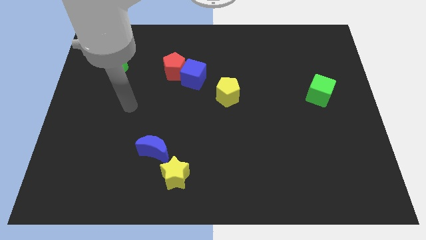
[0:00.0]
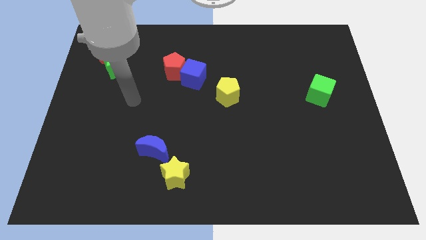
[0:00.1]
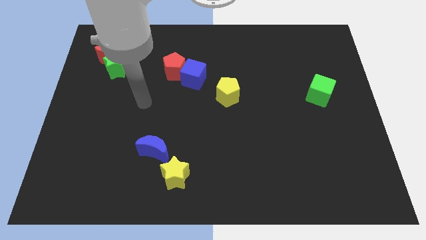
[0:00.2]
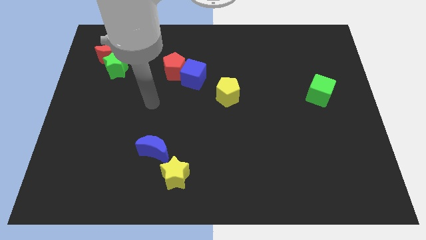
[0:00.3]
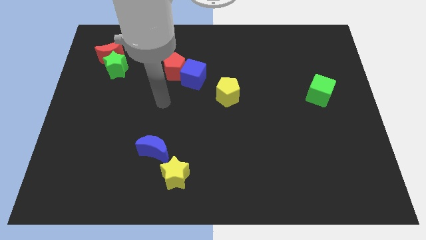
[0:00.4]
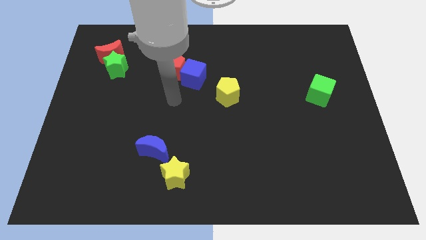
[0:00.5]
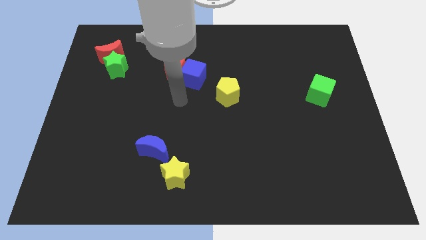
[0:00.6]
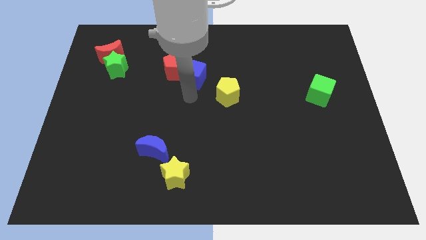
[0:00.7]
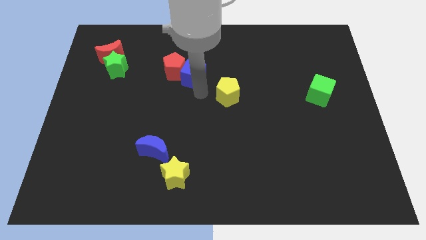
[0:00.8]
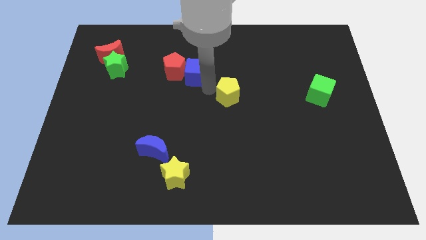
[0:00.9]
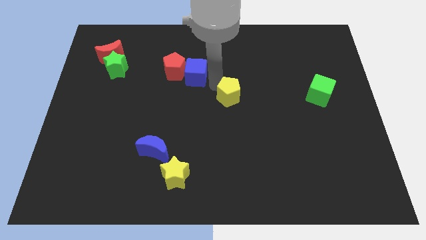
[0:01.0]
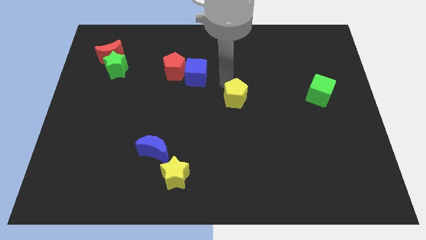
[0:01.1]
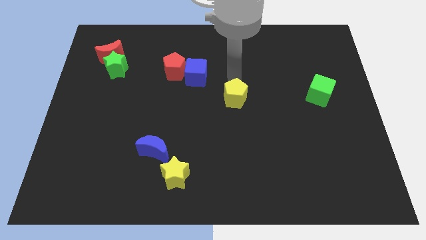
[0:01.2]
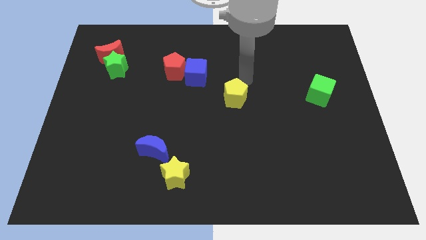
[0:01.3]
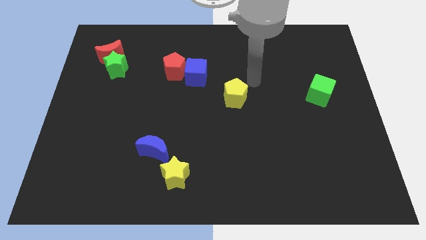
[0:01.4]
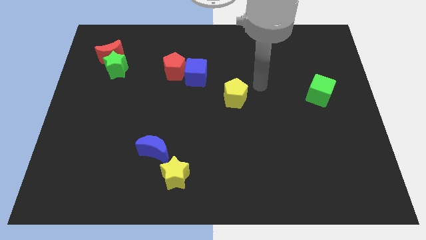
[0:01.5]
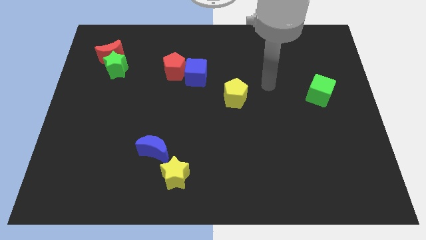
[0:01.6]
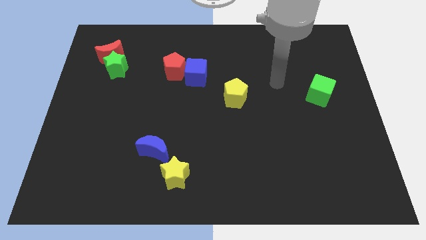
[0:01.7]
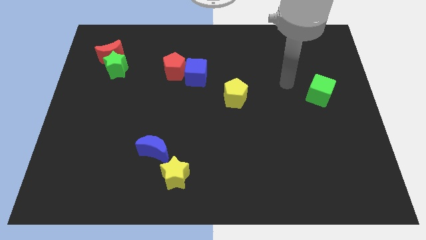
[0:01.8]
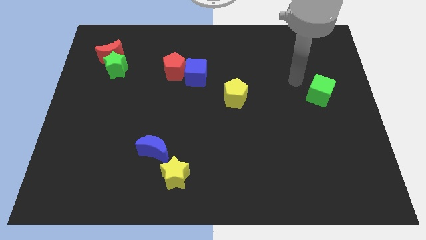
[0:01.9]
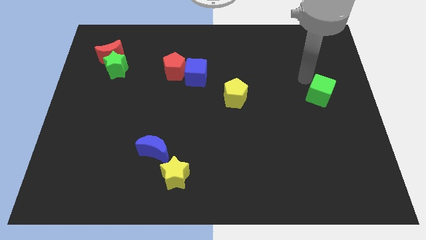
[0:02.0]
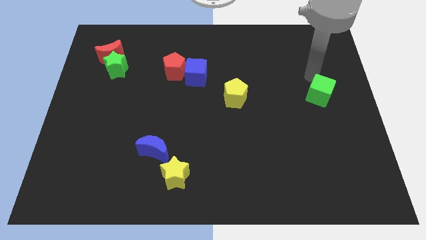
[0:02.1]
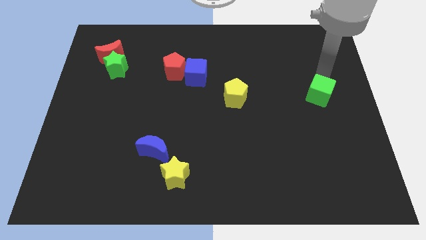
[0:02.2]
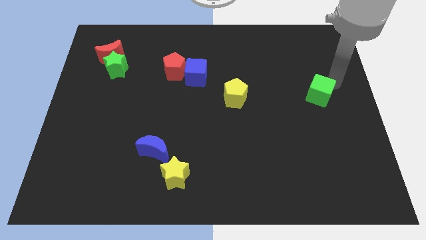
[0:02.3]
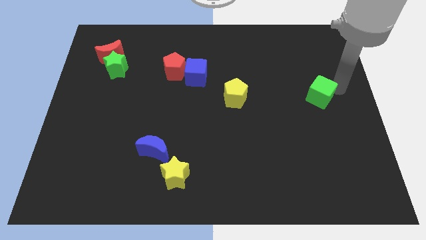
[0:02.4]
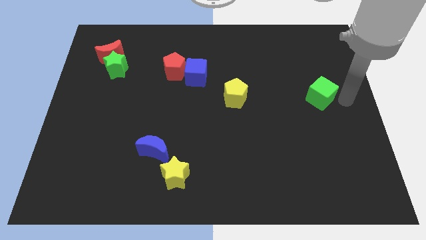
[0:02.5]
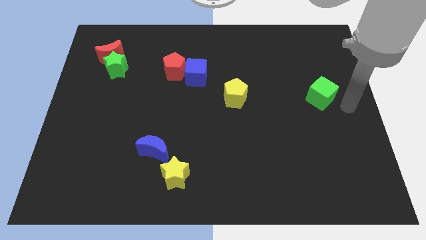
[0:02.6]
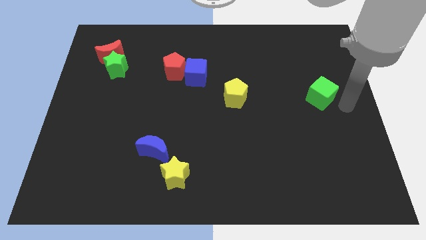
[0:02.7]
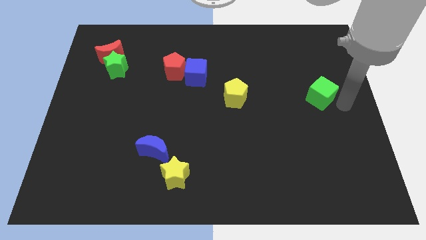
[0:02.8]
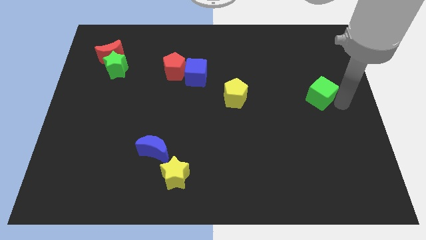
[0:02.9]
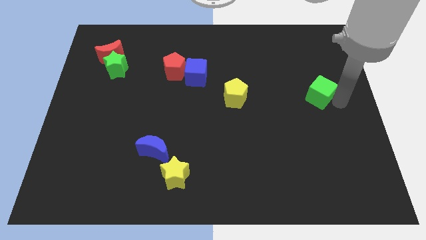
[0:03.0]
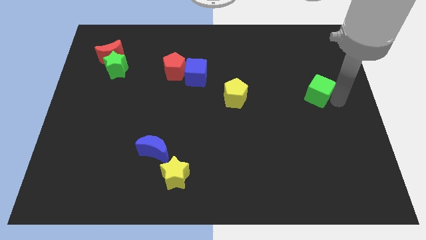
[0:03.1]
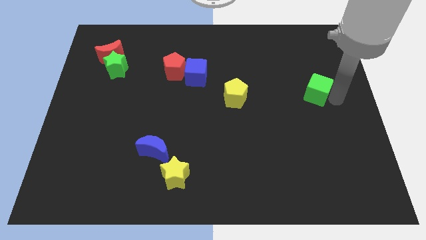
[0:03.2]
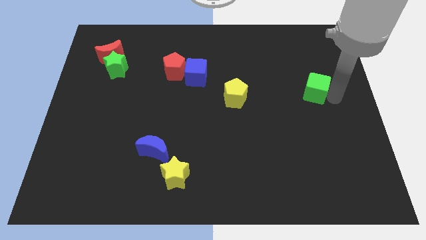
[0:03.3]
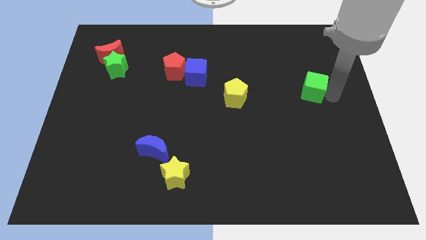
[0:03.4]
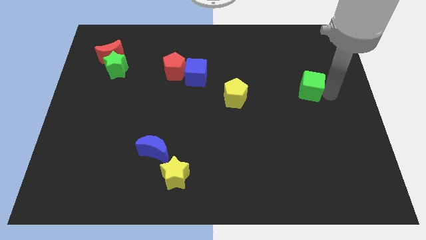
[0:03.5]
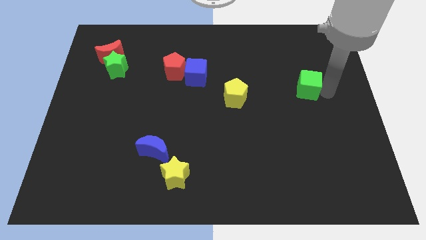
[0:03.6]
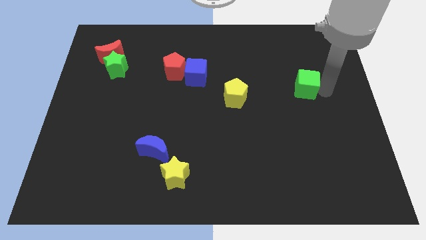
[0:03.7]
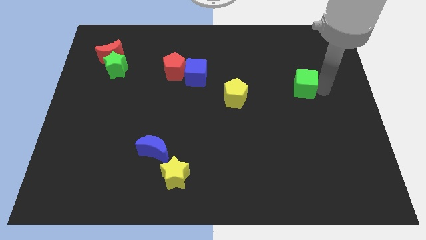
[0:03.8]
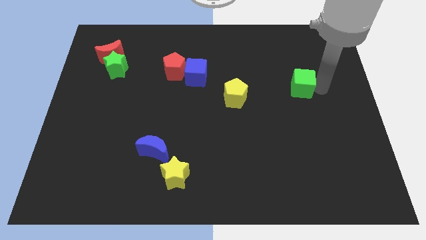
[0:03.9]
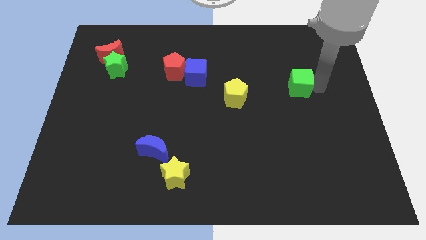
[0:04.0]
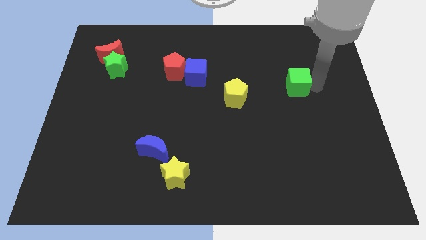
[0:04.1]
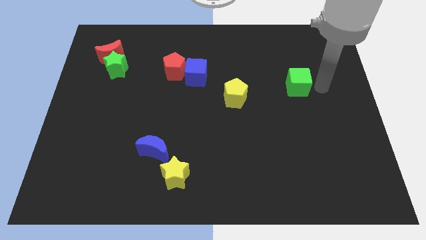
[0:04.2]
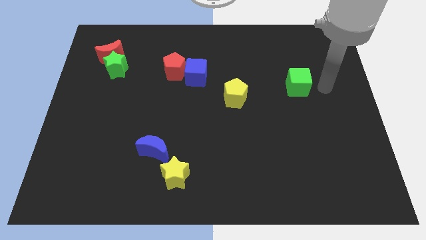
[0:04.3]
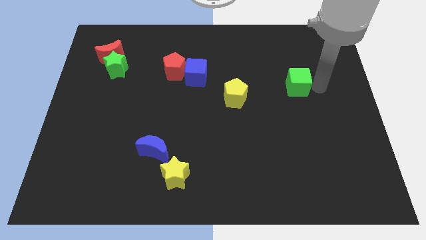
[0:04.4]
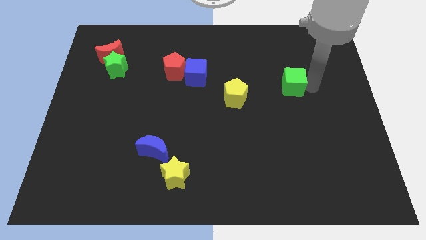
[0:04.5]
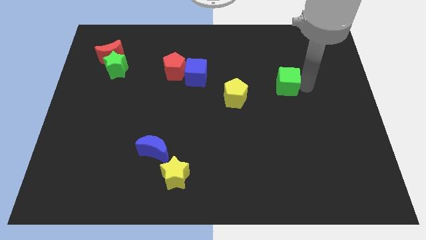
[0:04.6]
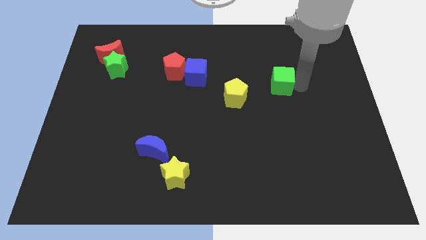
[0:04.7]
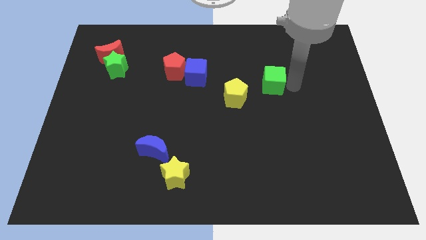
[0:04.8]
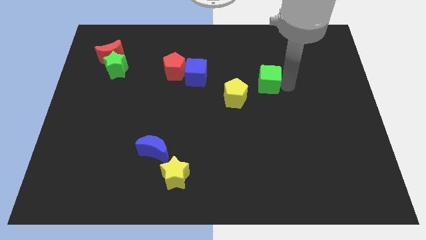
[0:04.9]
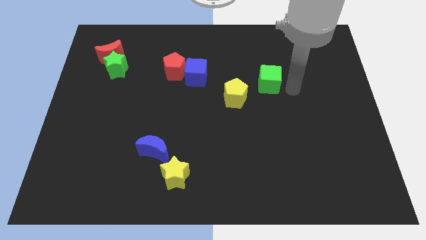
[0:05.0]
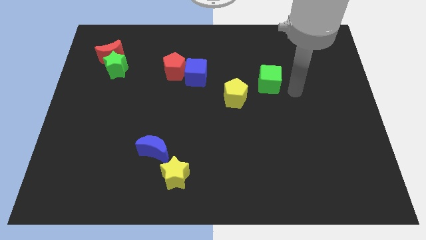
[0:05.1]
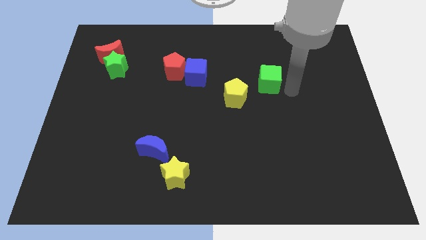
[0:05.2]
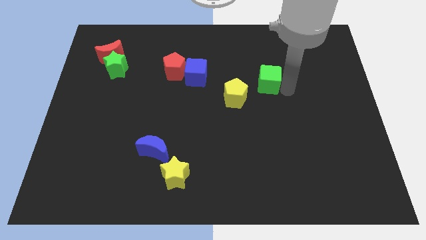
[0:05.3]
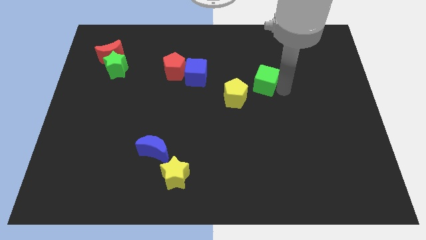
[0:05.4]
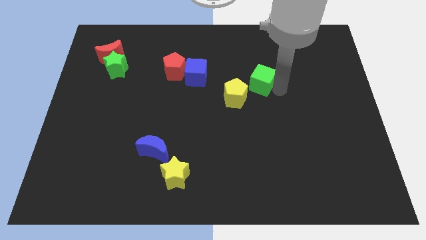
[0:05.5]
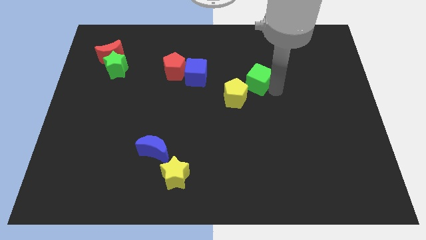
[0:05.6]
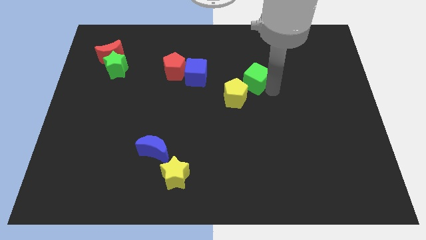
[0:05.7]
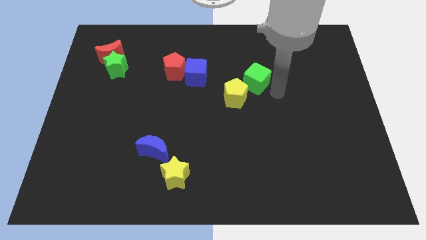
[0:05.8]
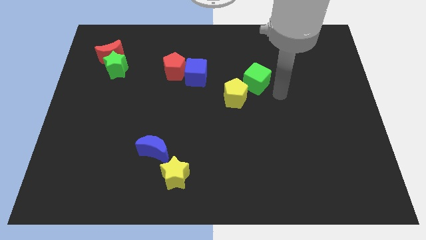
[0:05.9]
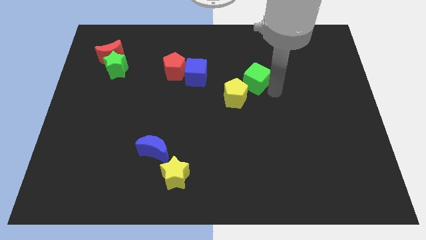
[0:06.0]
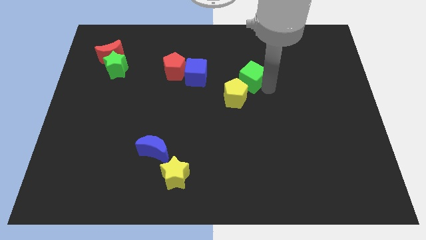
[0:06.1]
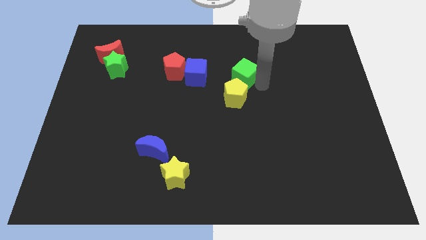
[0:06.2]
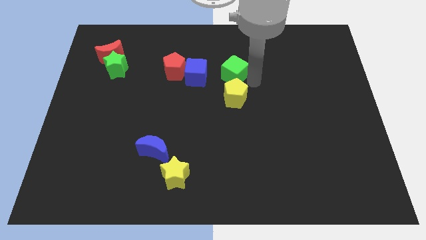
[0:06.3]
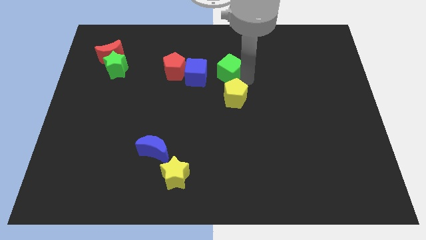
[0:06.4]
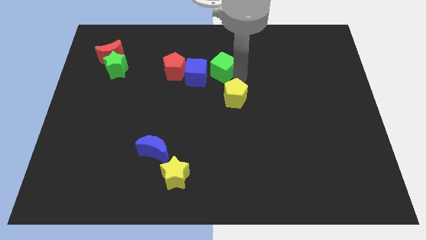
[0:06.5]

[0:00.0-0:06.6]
put the green cube to the top right of the blue cube
